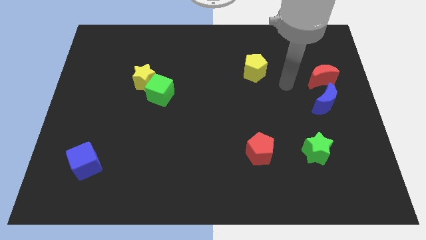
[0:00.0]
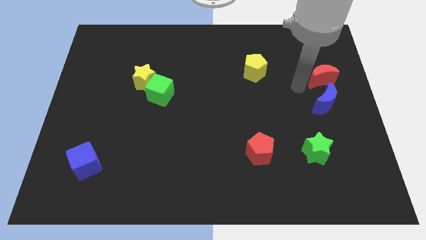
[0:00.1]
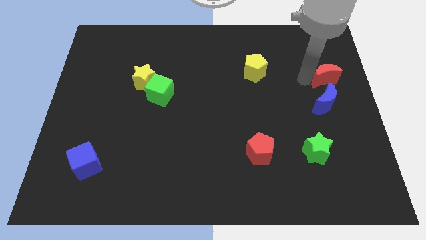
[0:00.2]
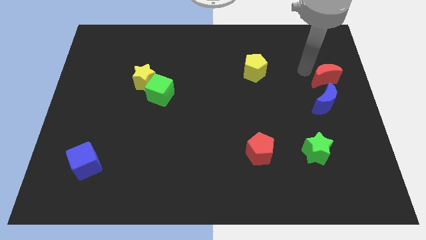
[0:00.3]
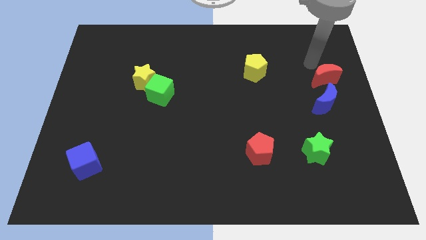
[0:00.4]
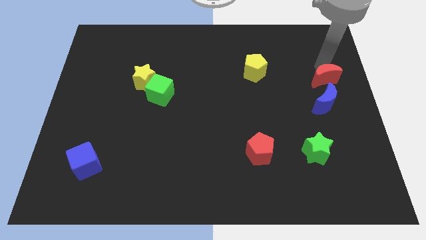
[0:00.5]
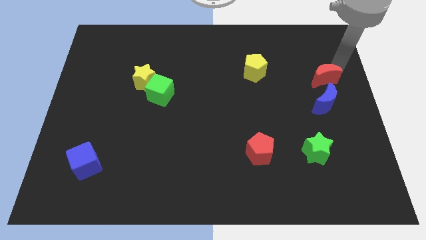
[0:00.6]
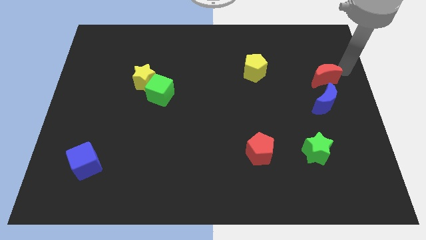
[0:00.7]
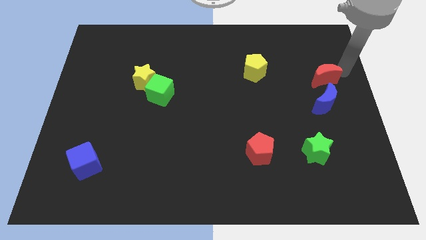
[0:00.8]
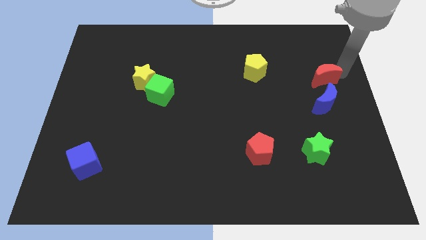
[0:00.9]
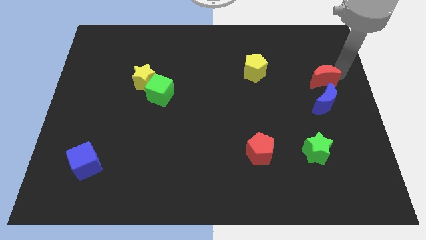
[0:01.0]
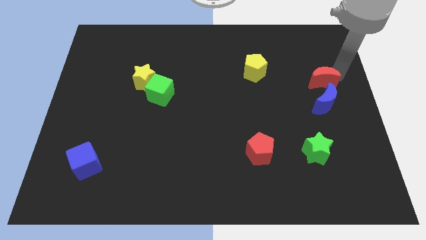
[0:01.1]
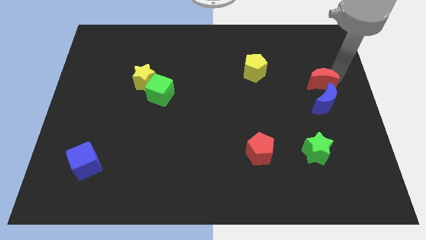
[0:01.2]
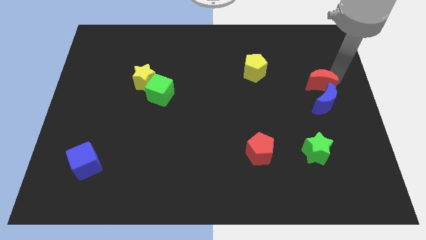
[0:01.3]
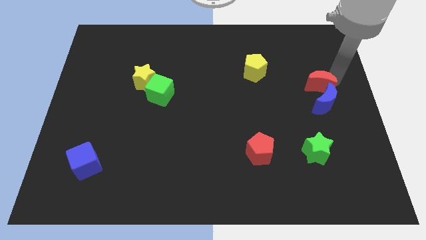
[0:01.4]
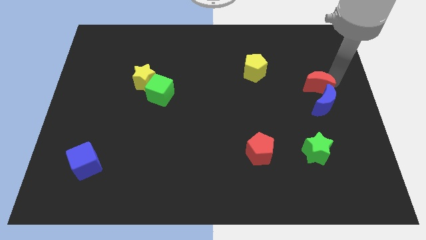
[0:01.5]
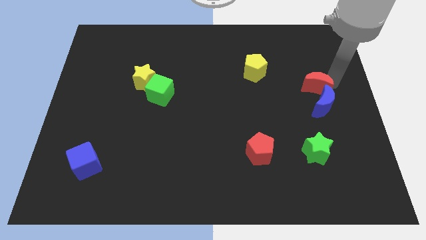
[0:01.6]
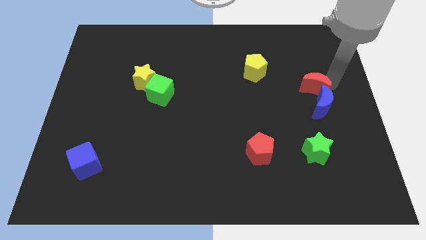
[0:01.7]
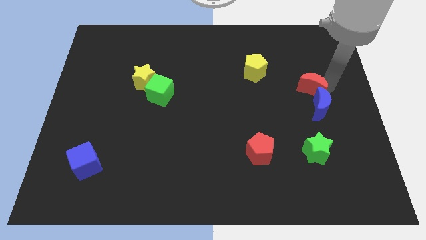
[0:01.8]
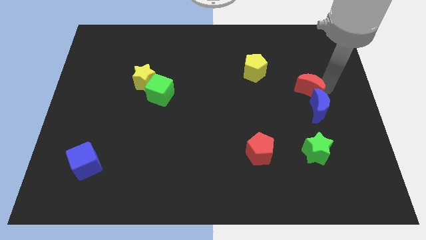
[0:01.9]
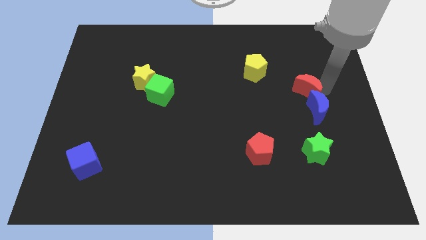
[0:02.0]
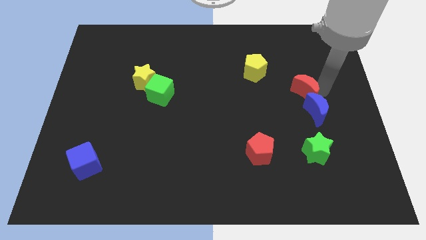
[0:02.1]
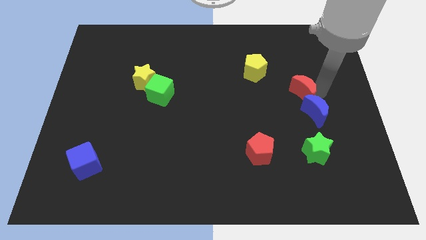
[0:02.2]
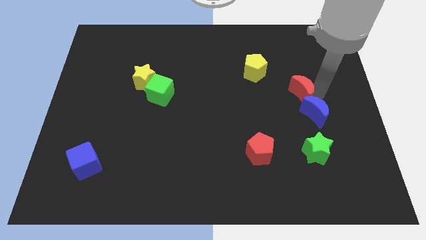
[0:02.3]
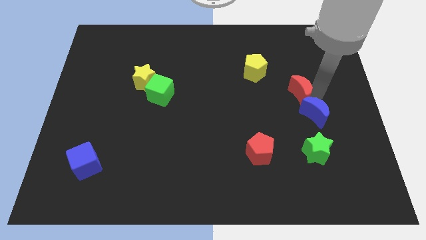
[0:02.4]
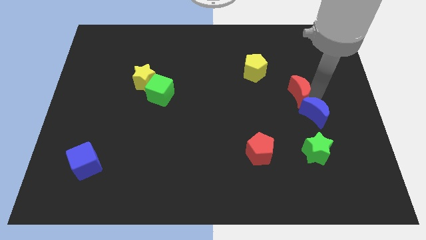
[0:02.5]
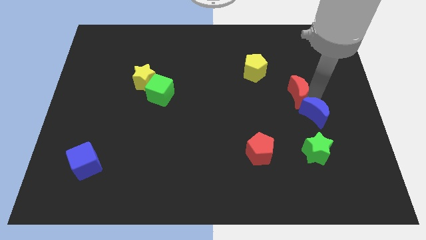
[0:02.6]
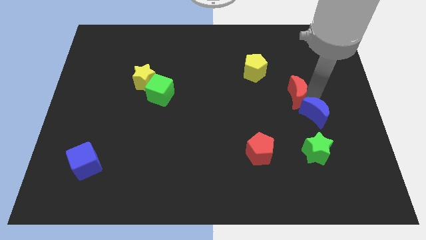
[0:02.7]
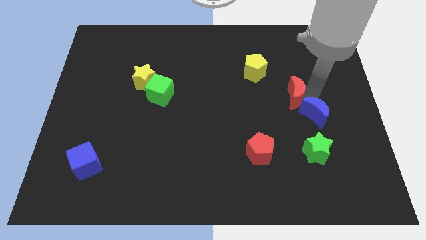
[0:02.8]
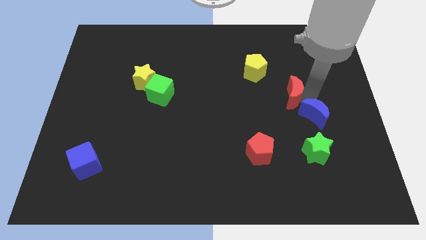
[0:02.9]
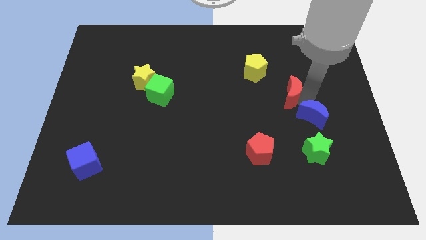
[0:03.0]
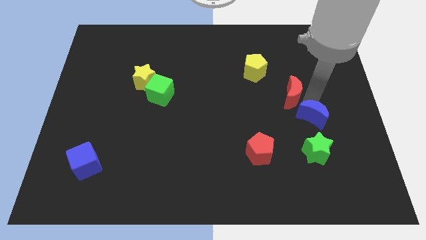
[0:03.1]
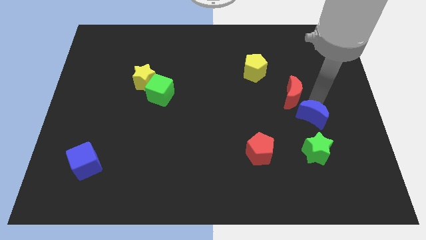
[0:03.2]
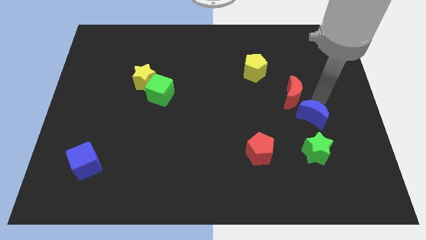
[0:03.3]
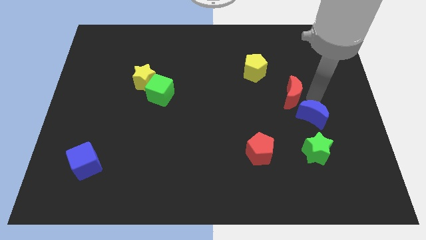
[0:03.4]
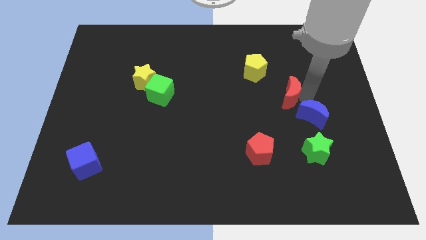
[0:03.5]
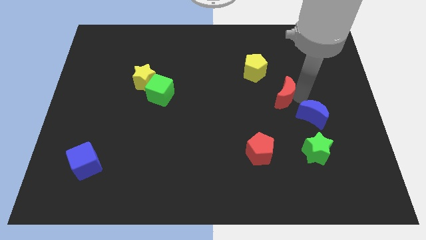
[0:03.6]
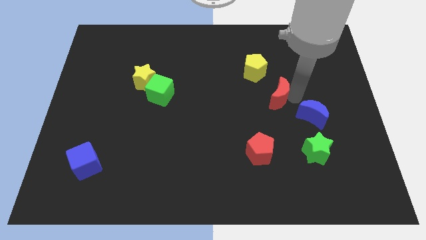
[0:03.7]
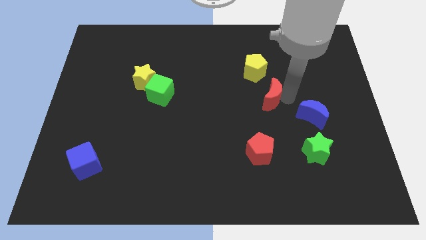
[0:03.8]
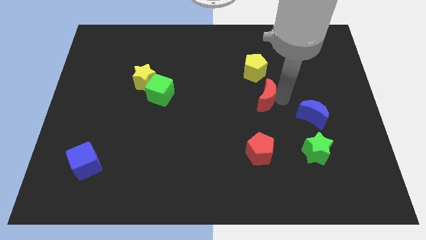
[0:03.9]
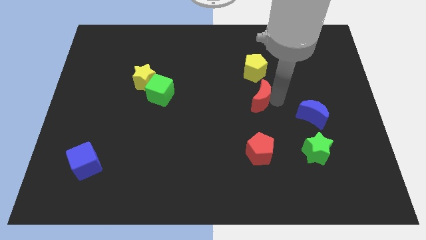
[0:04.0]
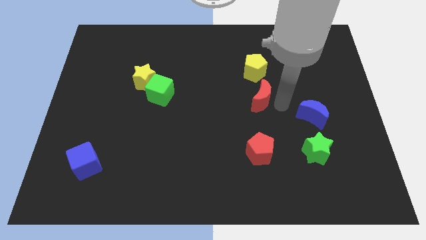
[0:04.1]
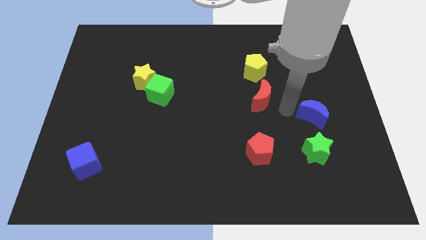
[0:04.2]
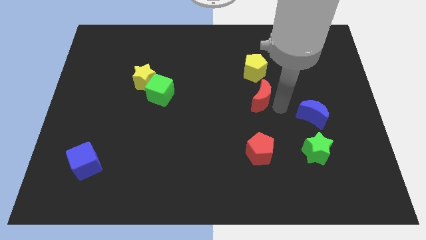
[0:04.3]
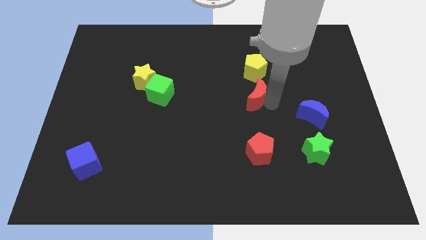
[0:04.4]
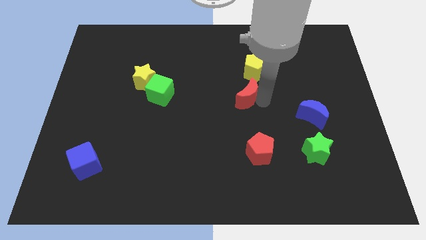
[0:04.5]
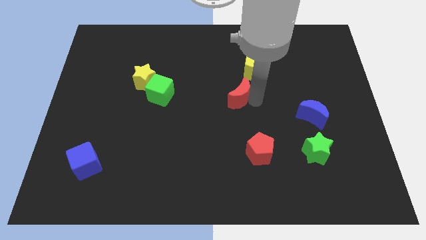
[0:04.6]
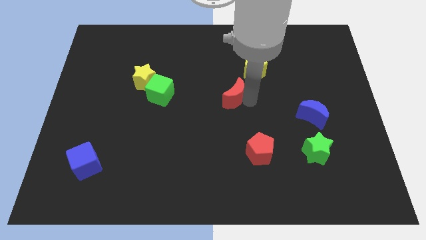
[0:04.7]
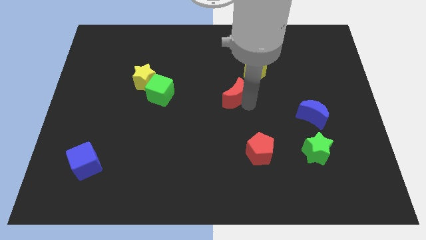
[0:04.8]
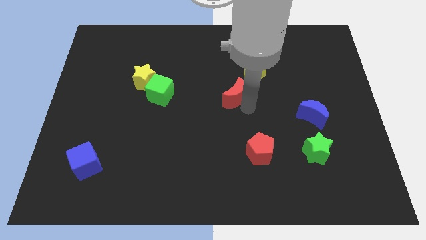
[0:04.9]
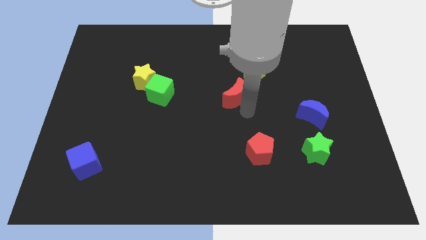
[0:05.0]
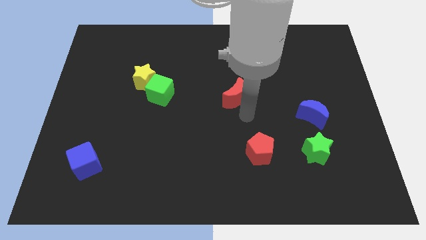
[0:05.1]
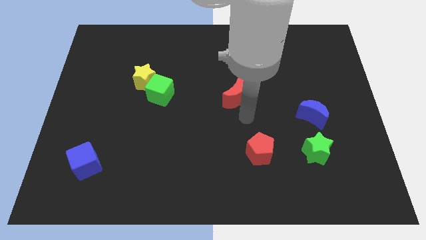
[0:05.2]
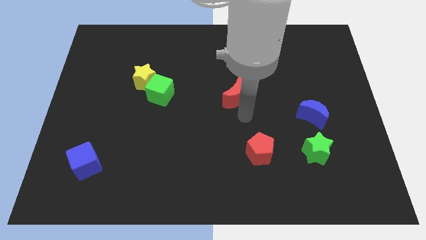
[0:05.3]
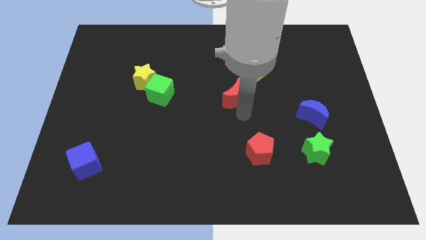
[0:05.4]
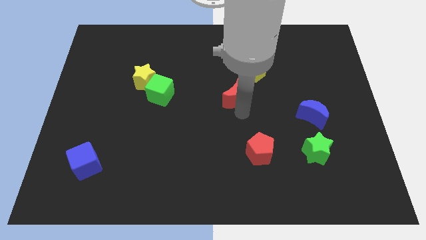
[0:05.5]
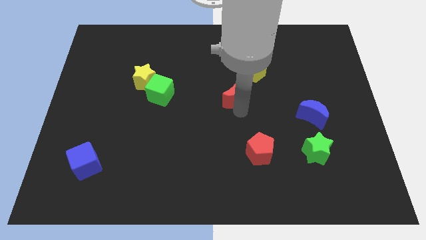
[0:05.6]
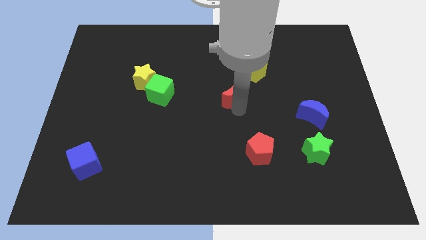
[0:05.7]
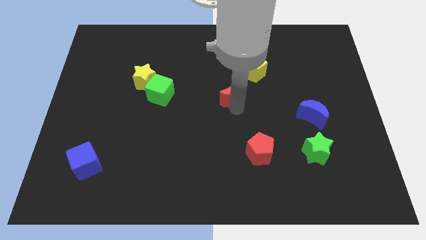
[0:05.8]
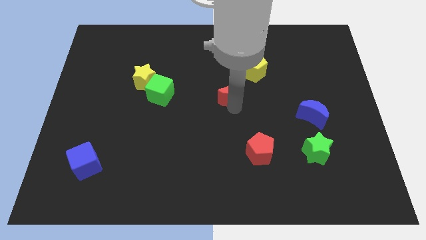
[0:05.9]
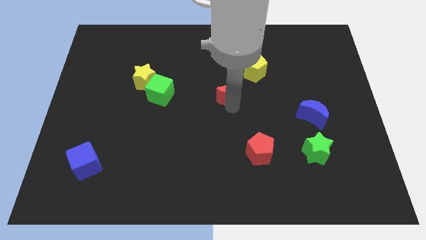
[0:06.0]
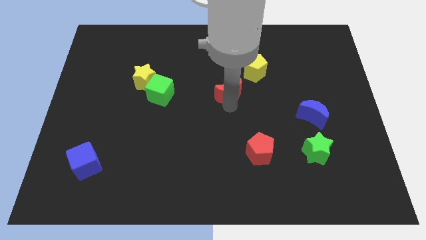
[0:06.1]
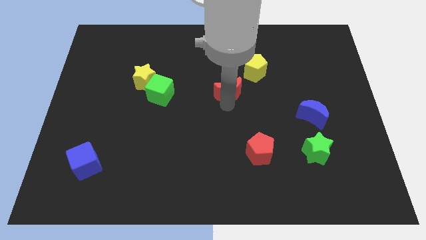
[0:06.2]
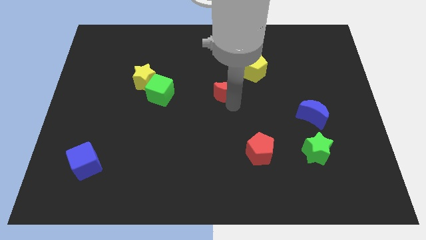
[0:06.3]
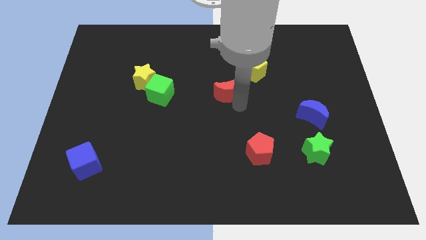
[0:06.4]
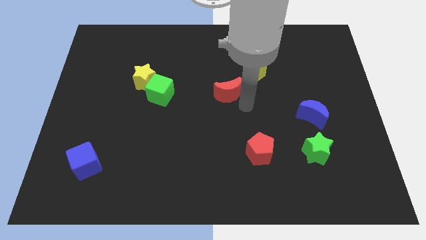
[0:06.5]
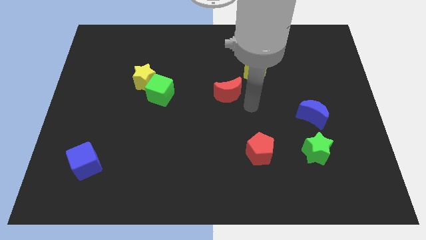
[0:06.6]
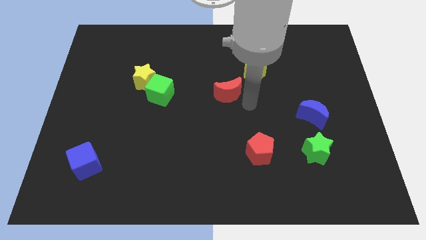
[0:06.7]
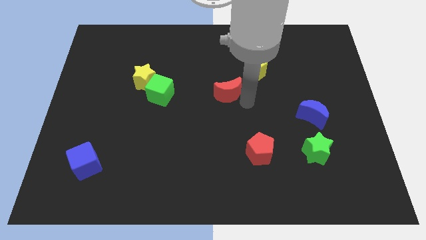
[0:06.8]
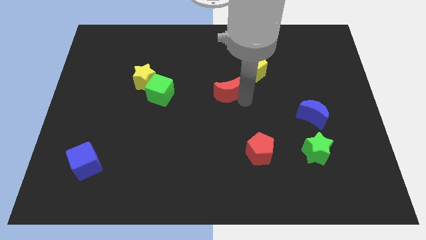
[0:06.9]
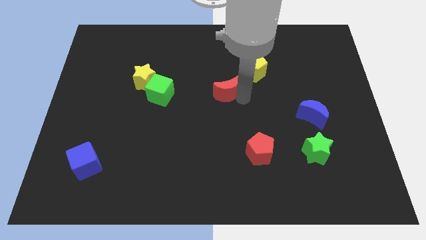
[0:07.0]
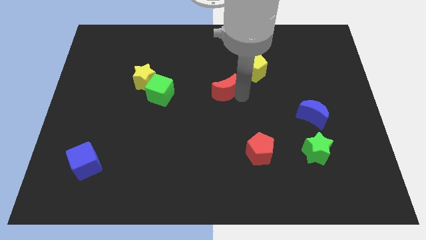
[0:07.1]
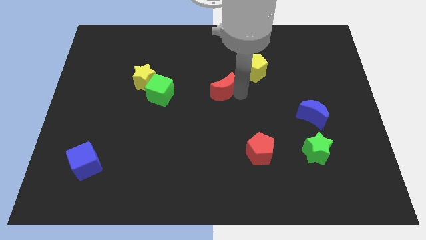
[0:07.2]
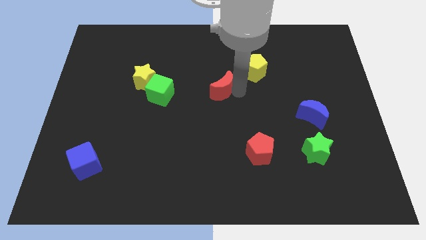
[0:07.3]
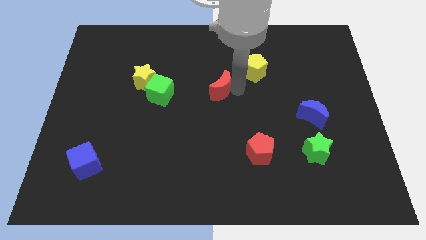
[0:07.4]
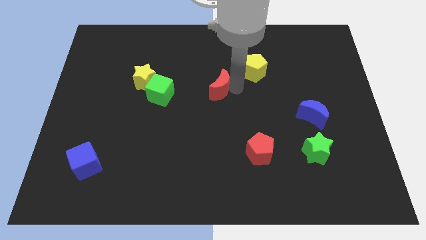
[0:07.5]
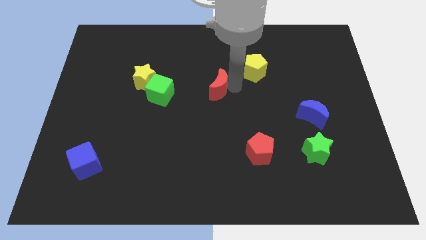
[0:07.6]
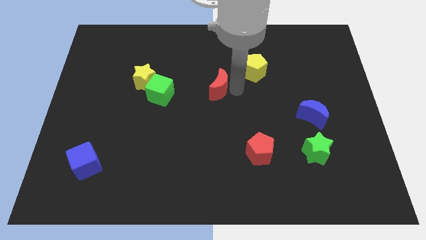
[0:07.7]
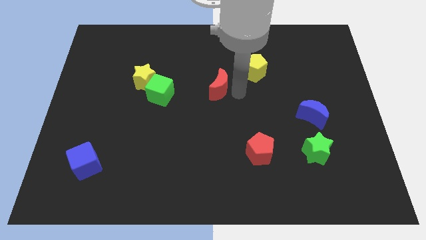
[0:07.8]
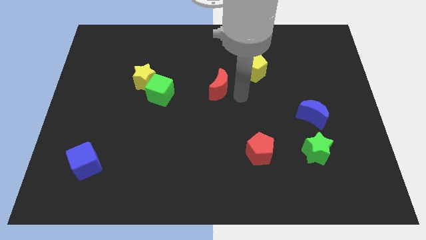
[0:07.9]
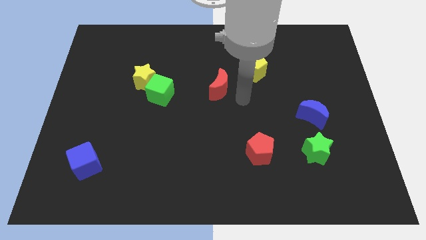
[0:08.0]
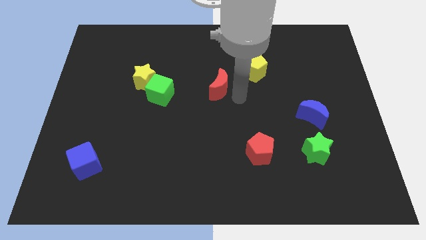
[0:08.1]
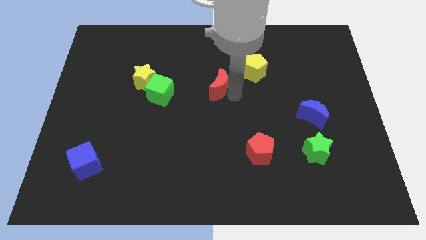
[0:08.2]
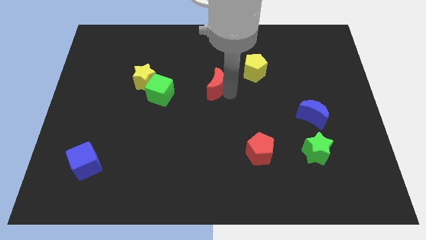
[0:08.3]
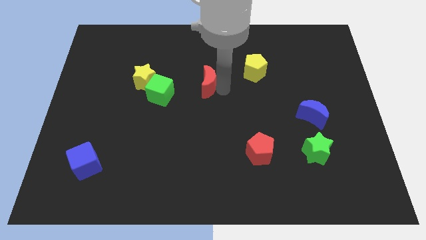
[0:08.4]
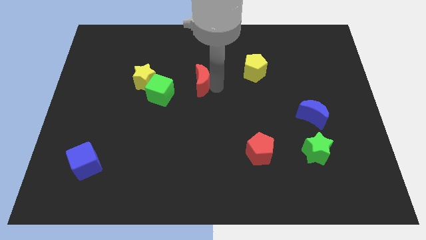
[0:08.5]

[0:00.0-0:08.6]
slide the red moon to the top right side of the green cube
